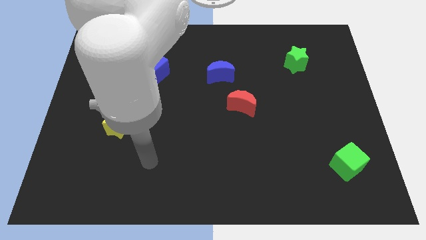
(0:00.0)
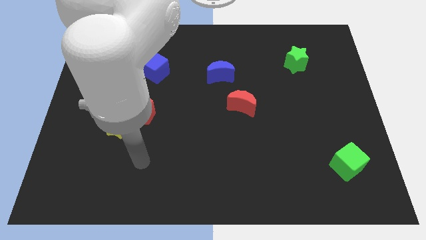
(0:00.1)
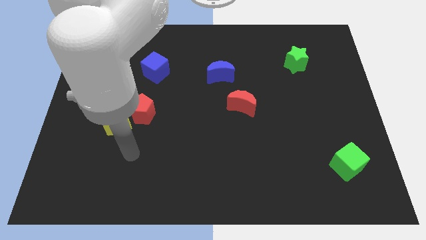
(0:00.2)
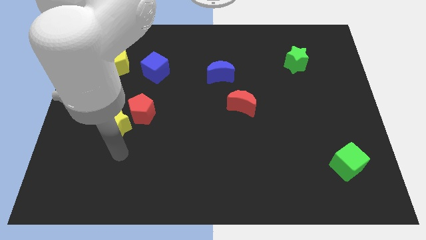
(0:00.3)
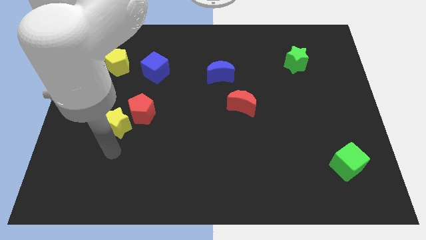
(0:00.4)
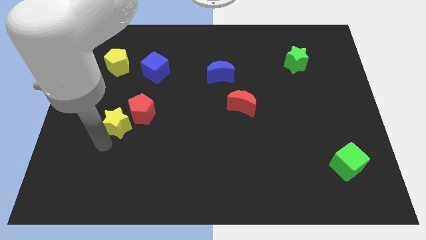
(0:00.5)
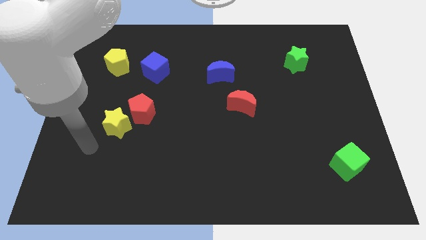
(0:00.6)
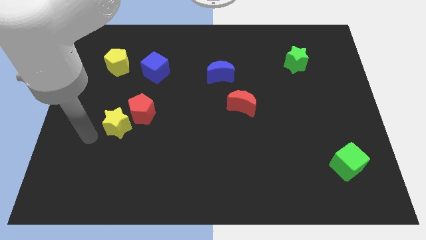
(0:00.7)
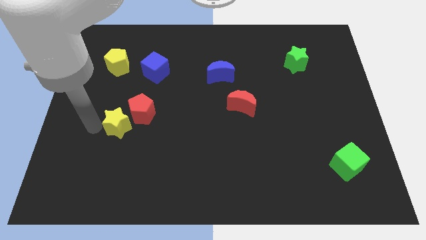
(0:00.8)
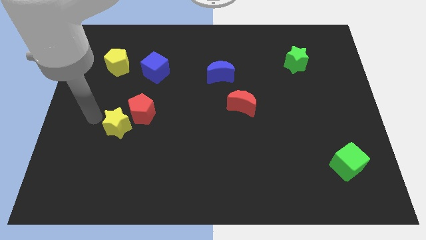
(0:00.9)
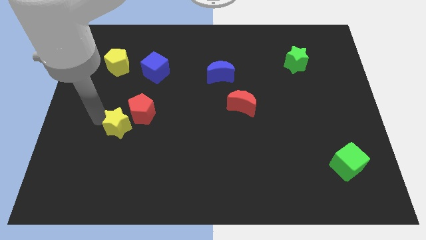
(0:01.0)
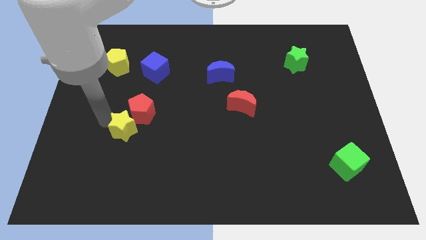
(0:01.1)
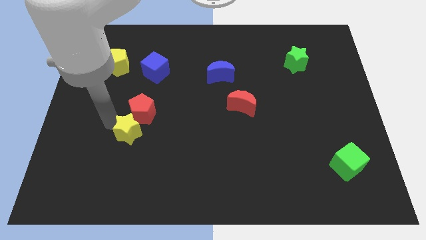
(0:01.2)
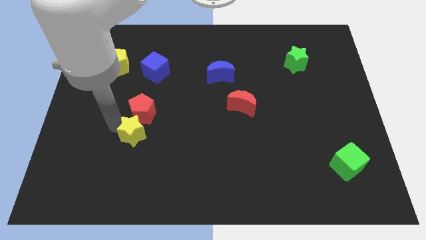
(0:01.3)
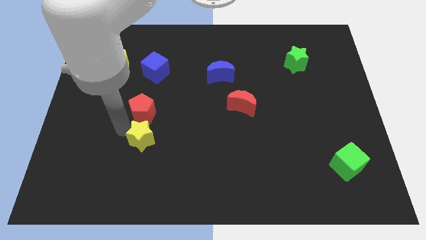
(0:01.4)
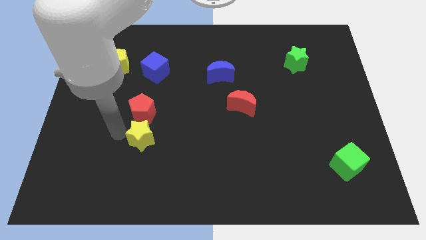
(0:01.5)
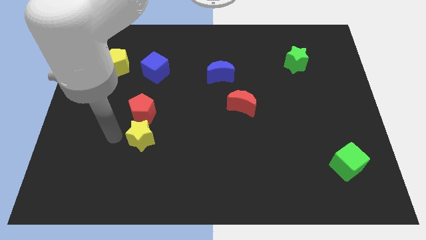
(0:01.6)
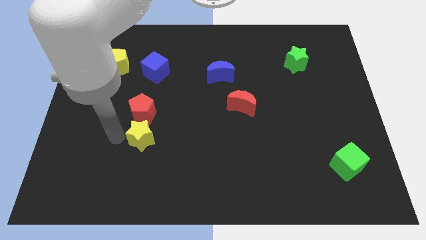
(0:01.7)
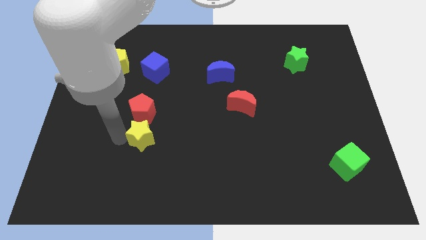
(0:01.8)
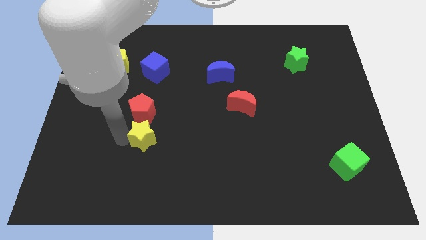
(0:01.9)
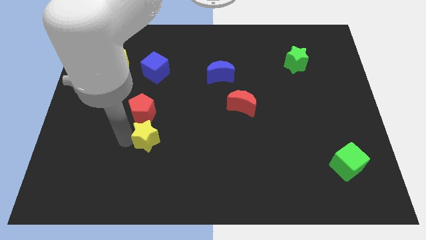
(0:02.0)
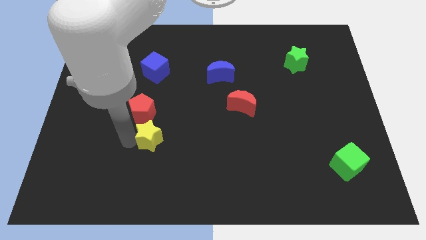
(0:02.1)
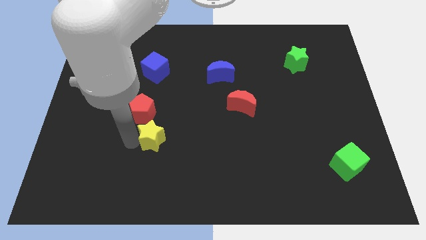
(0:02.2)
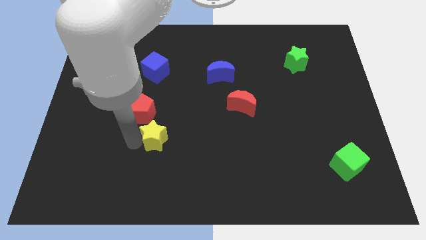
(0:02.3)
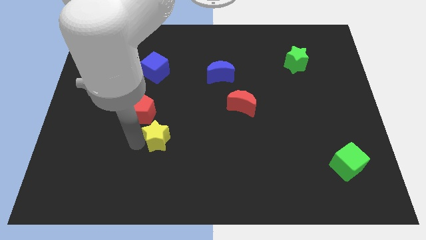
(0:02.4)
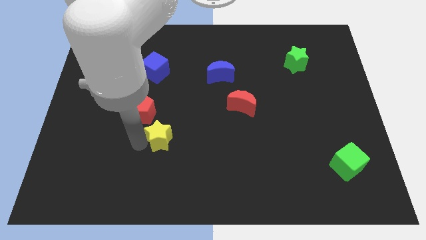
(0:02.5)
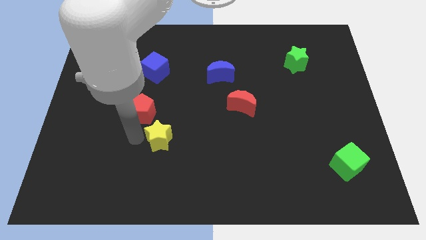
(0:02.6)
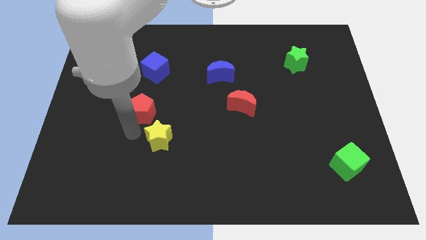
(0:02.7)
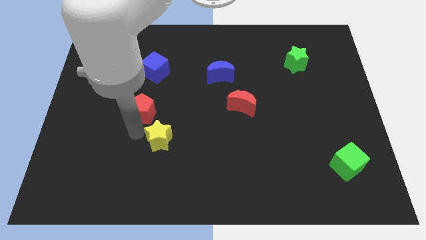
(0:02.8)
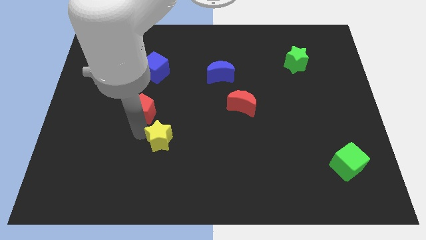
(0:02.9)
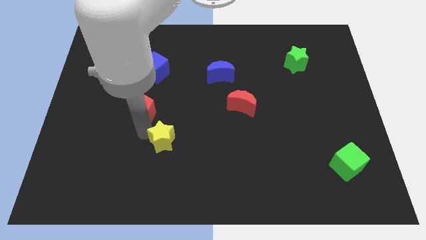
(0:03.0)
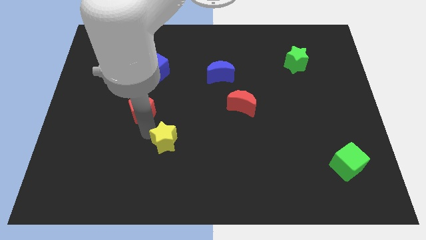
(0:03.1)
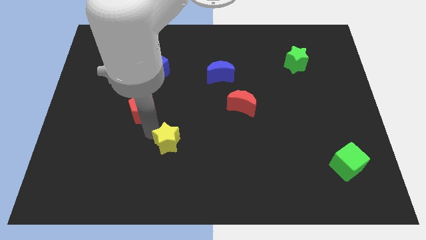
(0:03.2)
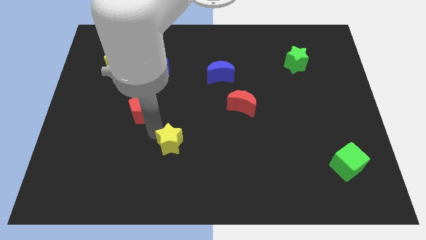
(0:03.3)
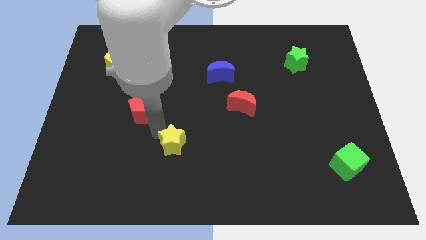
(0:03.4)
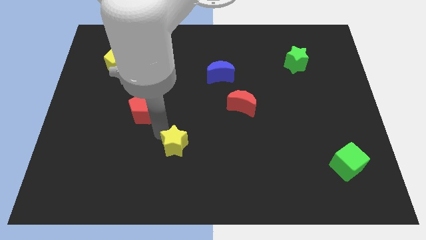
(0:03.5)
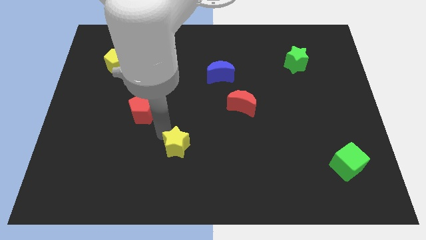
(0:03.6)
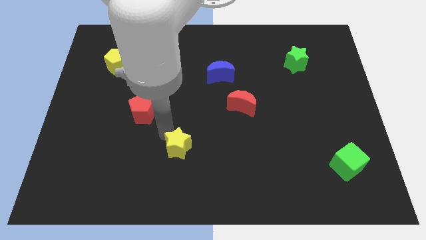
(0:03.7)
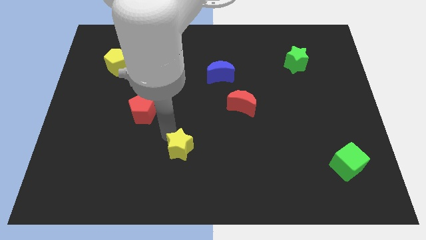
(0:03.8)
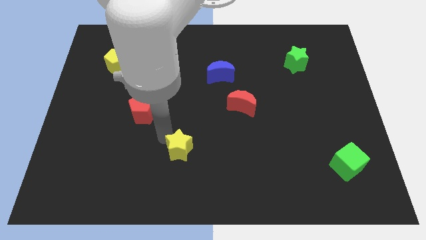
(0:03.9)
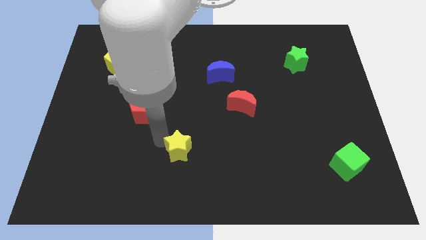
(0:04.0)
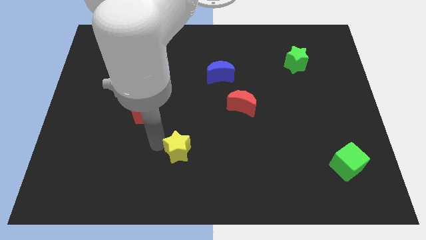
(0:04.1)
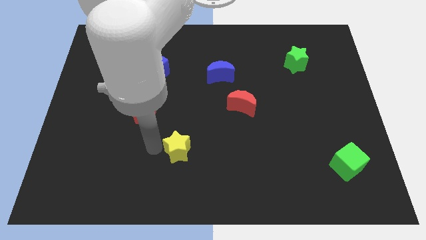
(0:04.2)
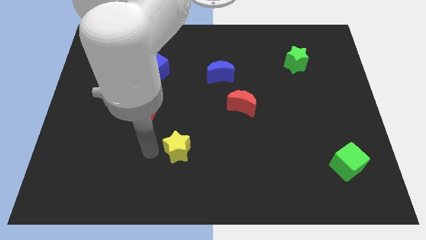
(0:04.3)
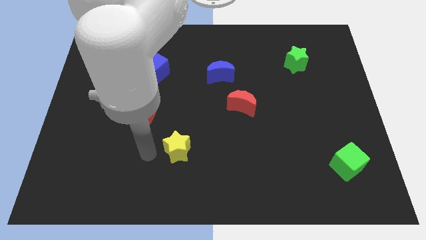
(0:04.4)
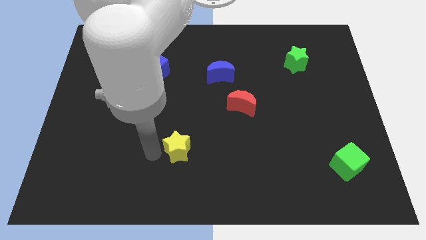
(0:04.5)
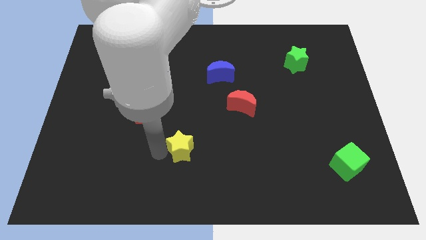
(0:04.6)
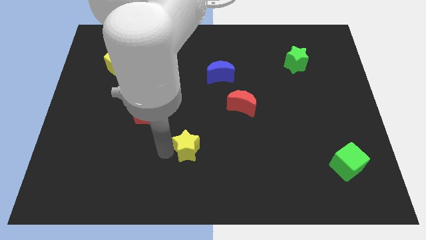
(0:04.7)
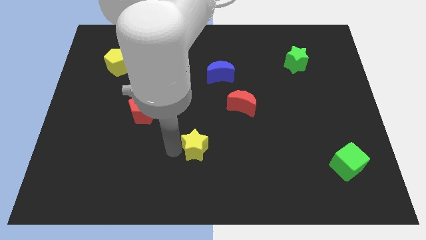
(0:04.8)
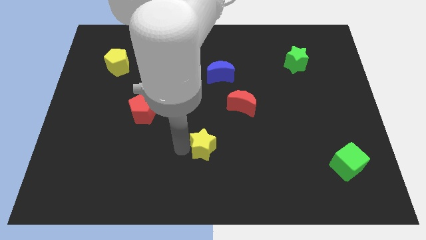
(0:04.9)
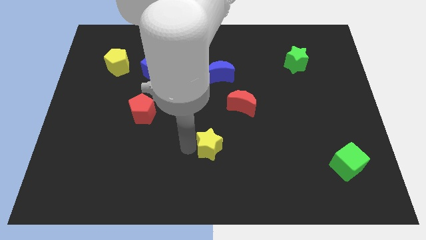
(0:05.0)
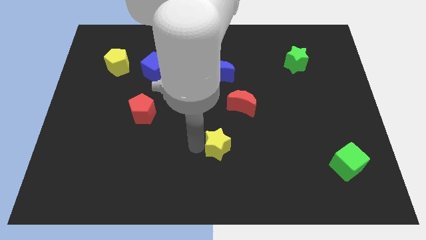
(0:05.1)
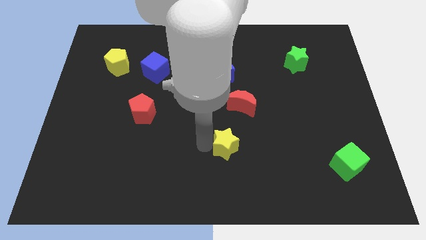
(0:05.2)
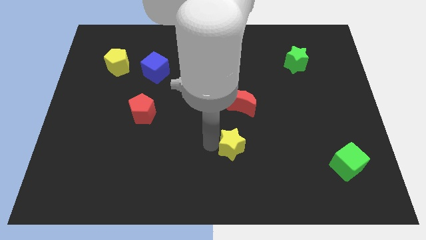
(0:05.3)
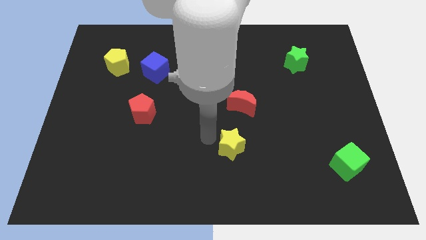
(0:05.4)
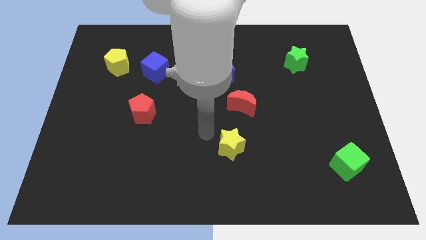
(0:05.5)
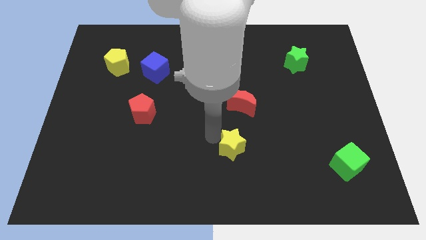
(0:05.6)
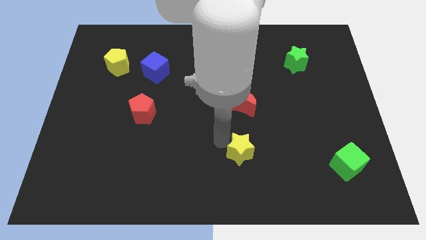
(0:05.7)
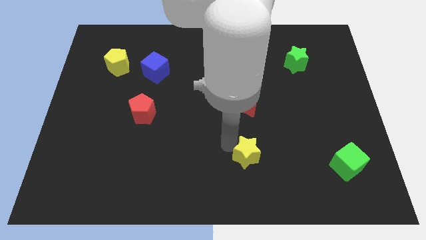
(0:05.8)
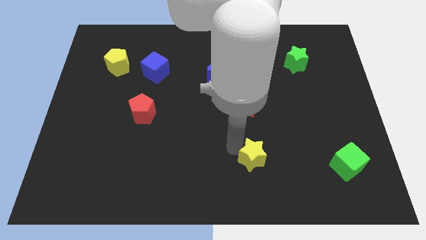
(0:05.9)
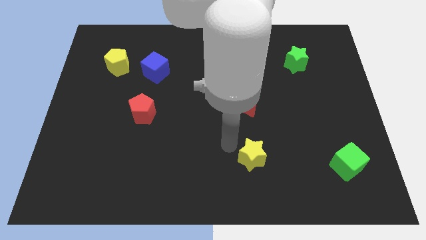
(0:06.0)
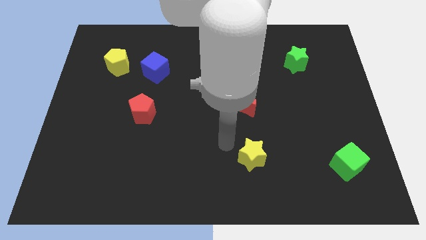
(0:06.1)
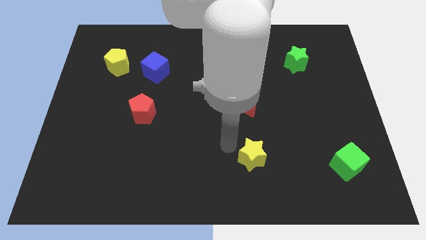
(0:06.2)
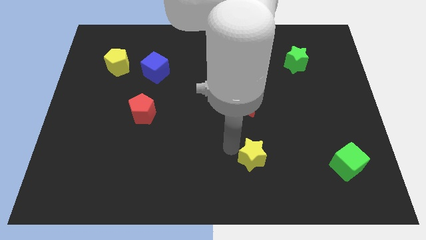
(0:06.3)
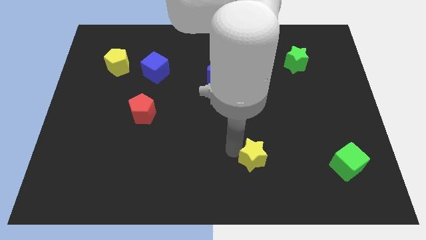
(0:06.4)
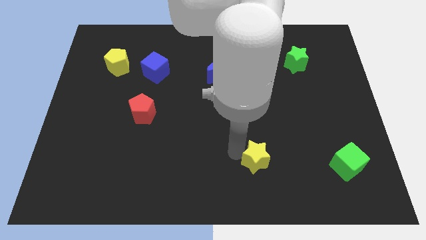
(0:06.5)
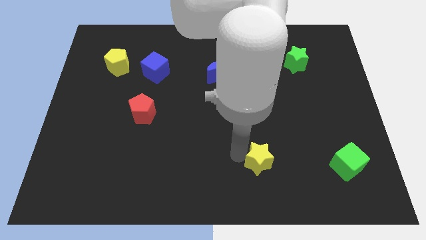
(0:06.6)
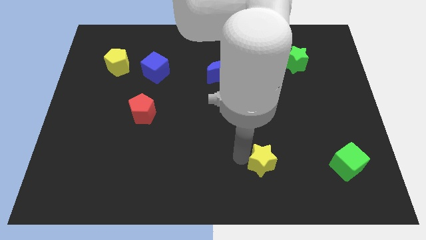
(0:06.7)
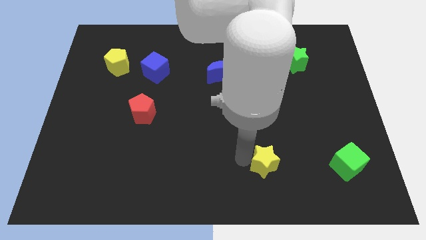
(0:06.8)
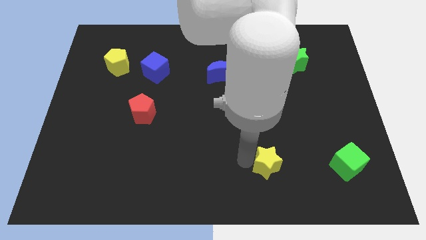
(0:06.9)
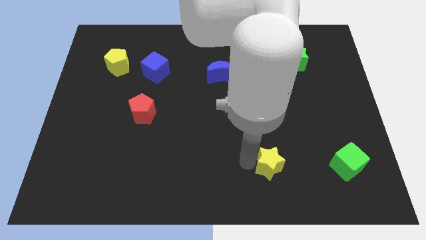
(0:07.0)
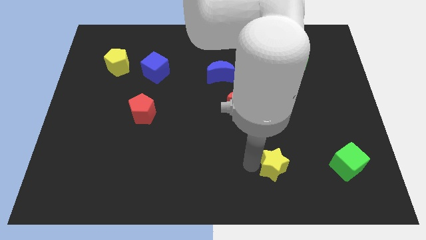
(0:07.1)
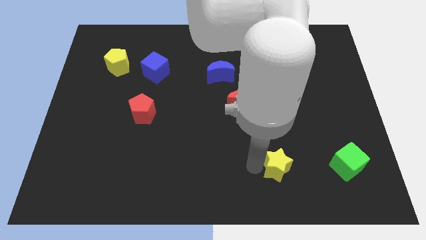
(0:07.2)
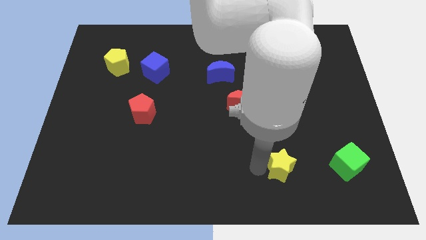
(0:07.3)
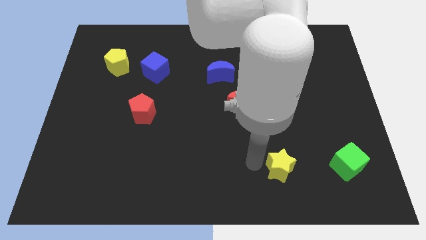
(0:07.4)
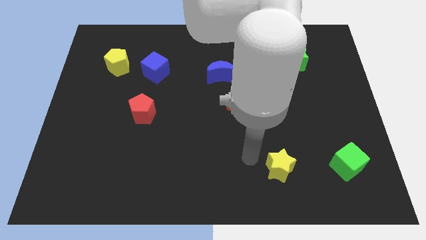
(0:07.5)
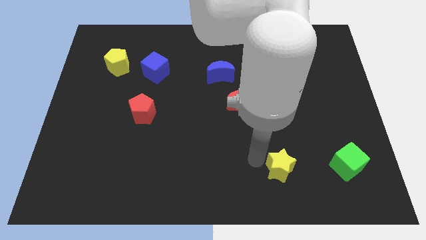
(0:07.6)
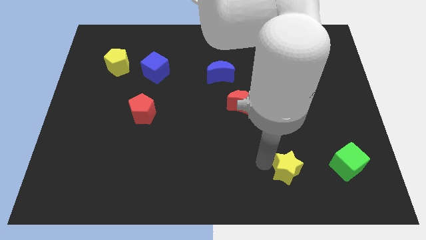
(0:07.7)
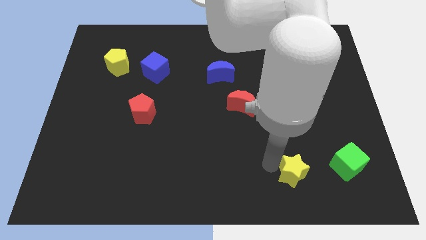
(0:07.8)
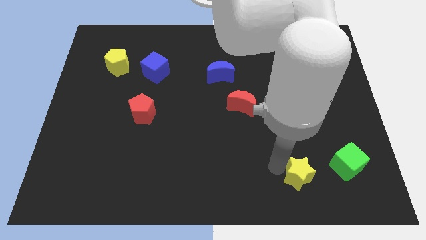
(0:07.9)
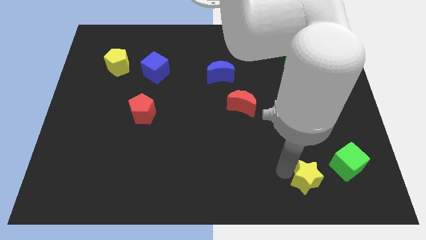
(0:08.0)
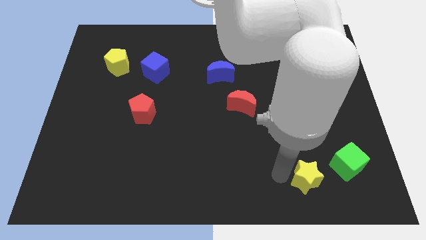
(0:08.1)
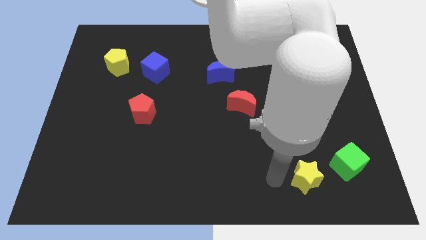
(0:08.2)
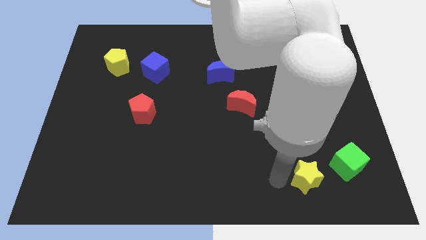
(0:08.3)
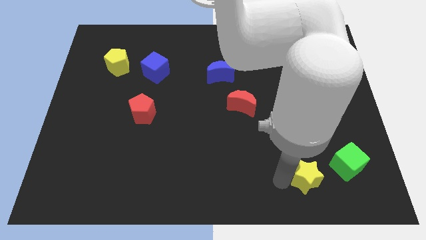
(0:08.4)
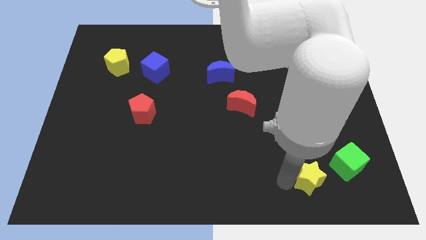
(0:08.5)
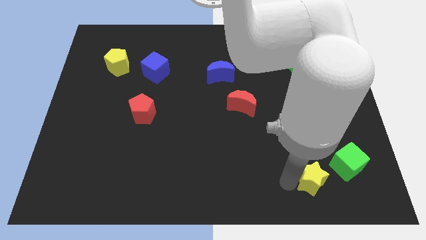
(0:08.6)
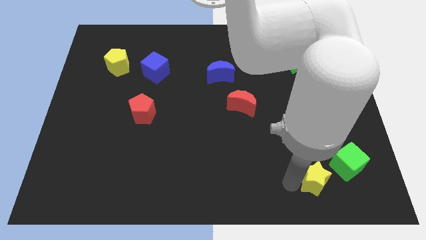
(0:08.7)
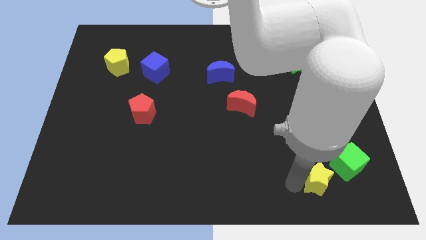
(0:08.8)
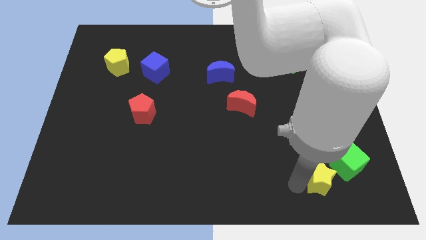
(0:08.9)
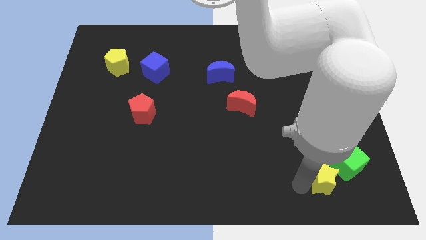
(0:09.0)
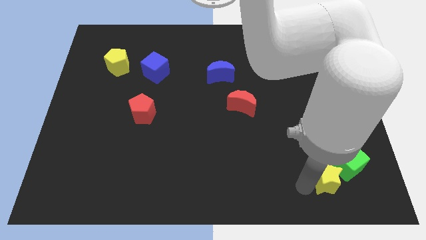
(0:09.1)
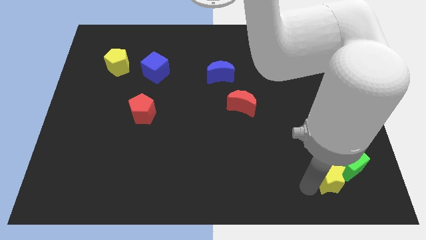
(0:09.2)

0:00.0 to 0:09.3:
slide the yellow star to the green cube
